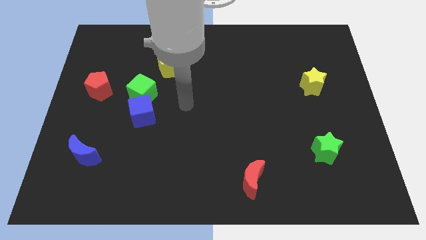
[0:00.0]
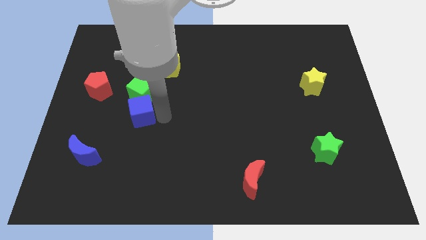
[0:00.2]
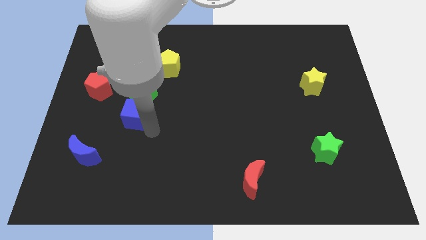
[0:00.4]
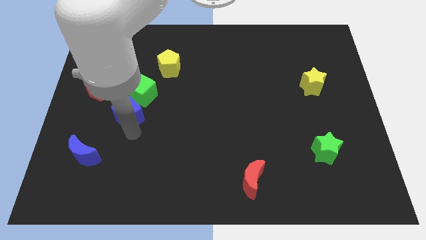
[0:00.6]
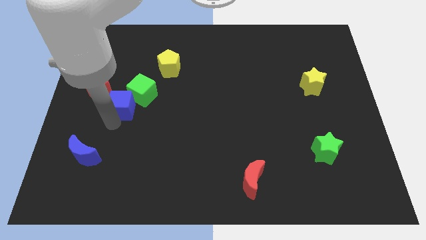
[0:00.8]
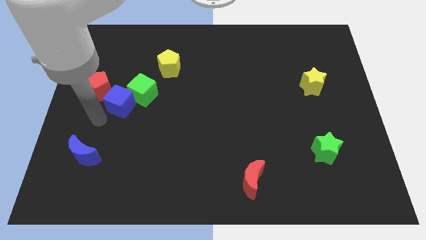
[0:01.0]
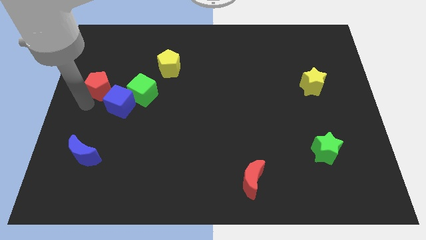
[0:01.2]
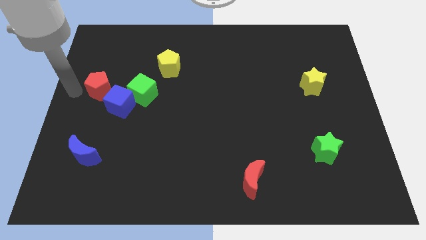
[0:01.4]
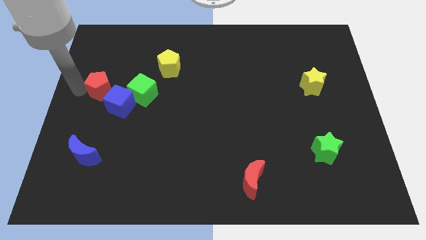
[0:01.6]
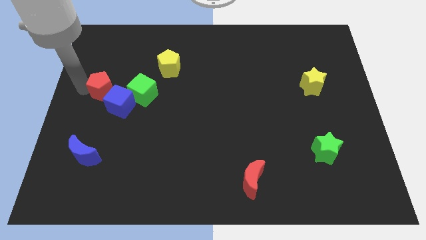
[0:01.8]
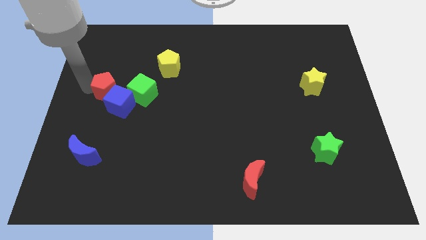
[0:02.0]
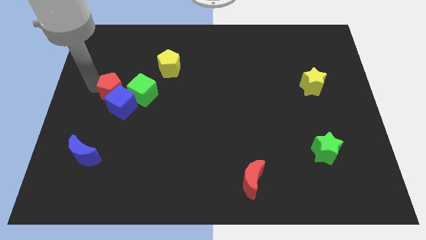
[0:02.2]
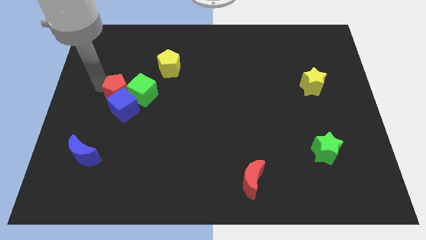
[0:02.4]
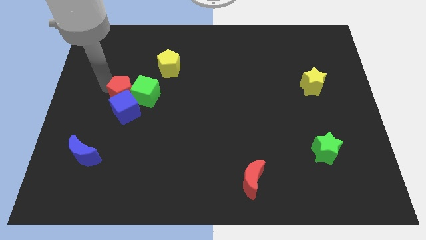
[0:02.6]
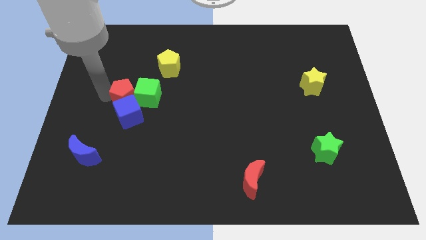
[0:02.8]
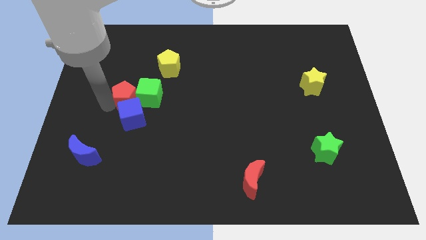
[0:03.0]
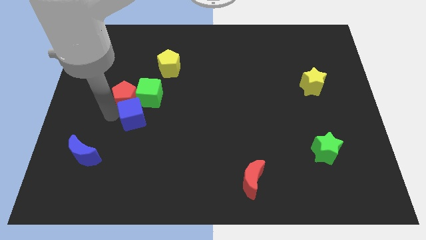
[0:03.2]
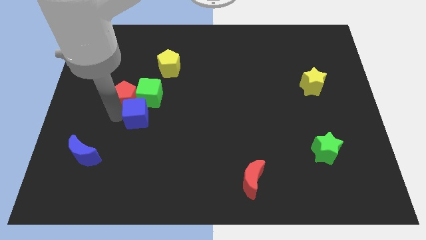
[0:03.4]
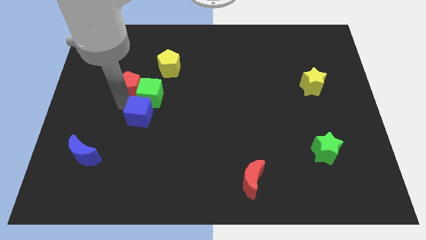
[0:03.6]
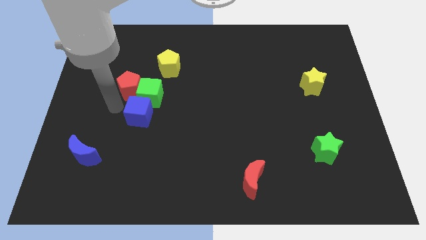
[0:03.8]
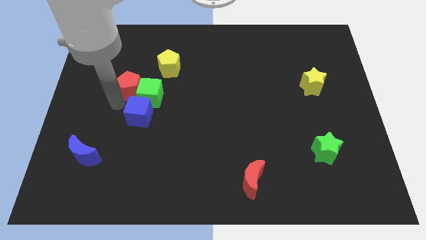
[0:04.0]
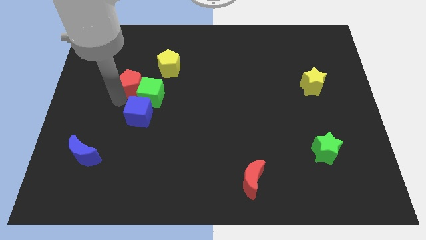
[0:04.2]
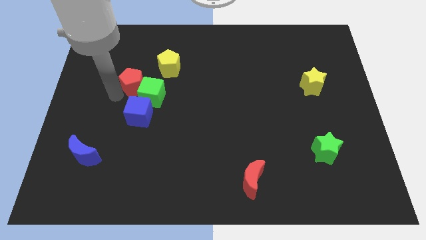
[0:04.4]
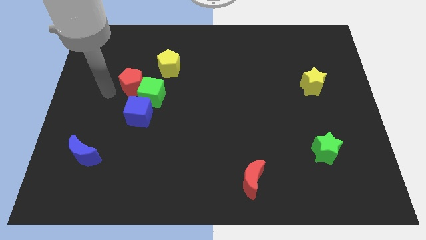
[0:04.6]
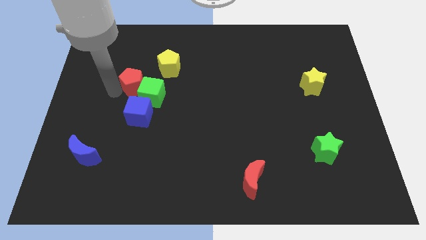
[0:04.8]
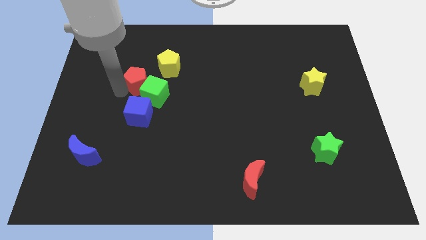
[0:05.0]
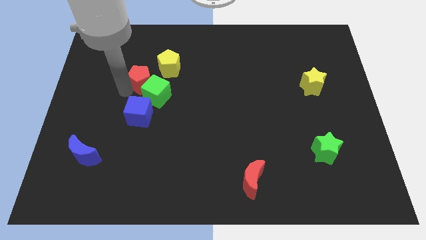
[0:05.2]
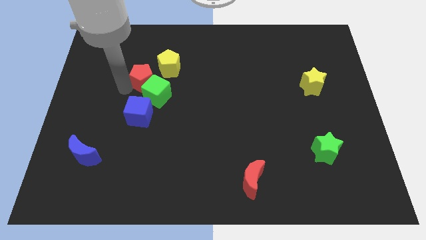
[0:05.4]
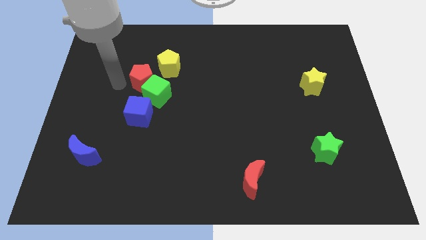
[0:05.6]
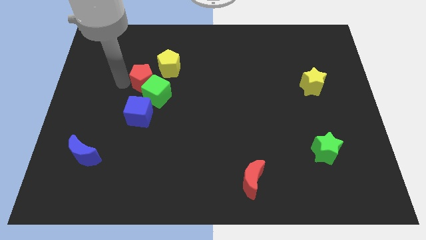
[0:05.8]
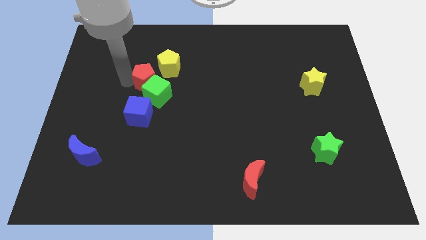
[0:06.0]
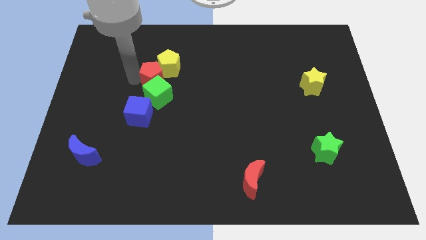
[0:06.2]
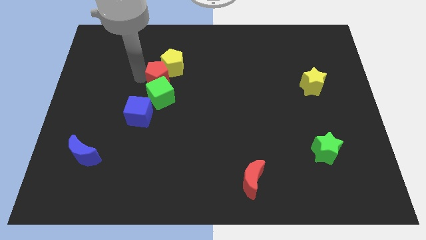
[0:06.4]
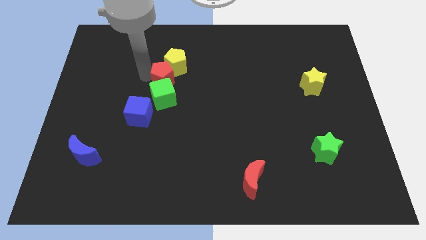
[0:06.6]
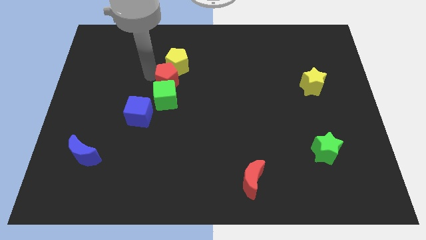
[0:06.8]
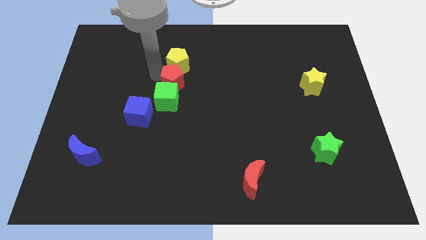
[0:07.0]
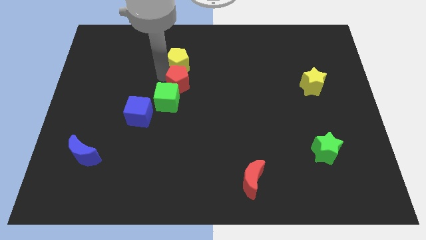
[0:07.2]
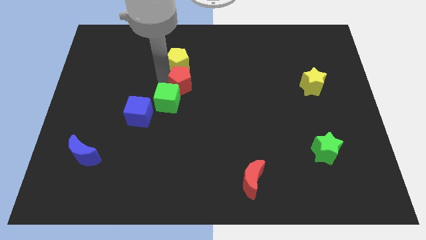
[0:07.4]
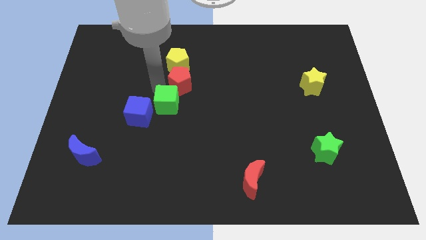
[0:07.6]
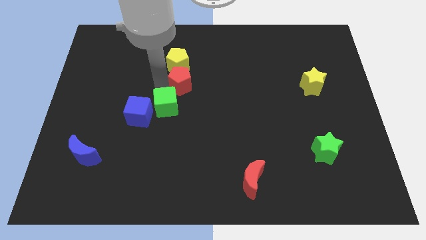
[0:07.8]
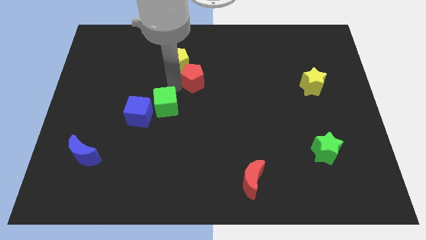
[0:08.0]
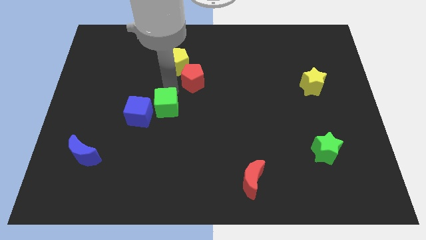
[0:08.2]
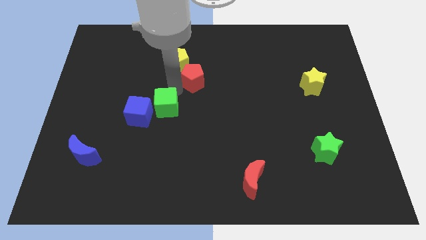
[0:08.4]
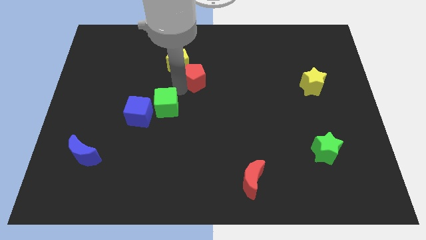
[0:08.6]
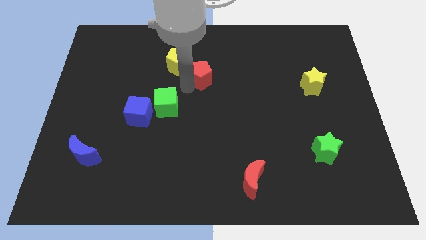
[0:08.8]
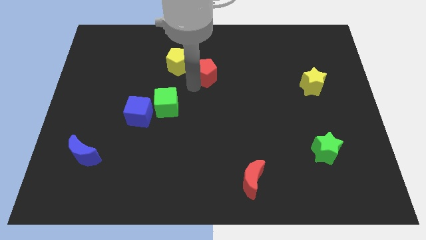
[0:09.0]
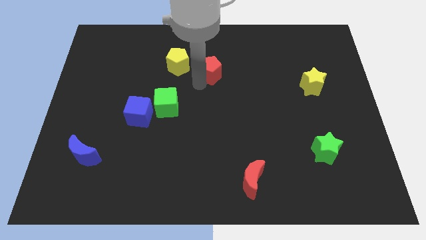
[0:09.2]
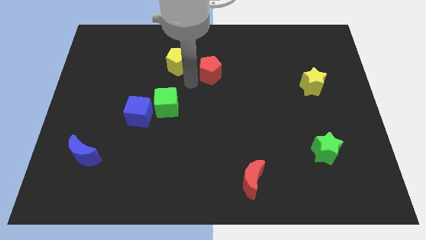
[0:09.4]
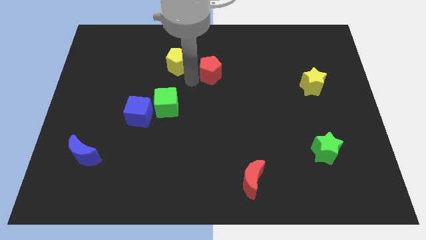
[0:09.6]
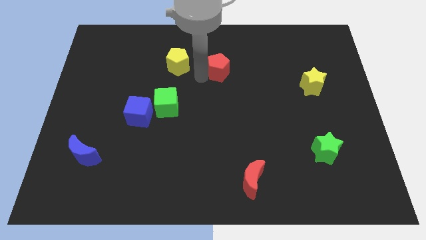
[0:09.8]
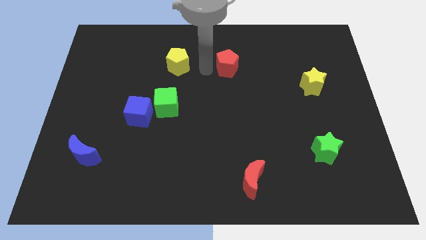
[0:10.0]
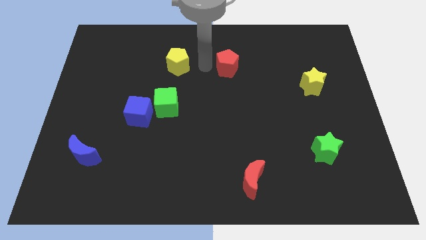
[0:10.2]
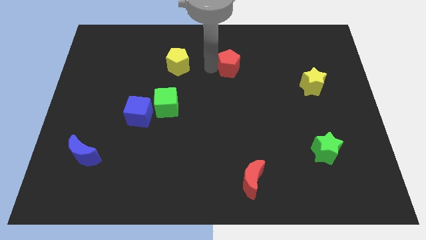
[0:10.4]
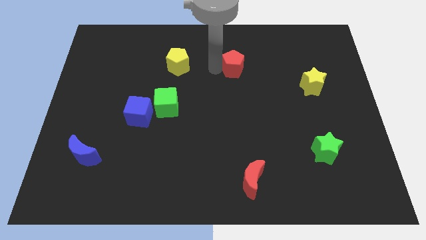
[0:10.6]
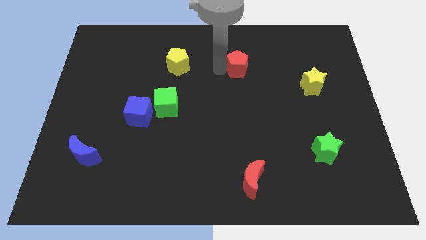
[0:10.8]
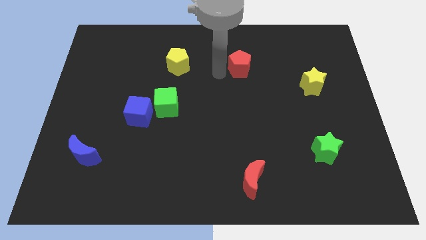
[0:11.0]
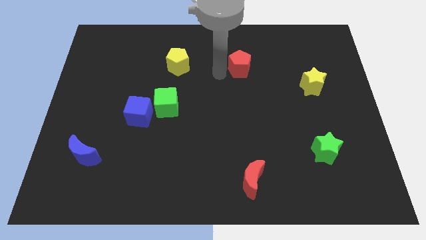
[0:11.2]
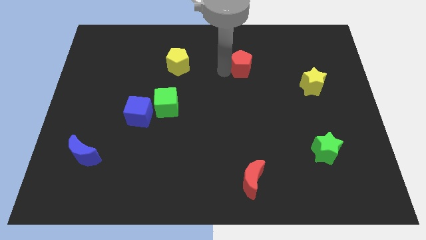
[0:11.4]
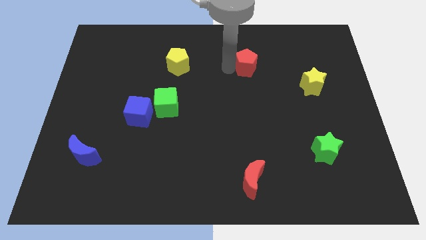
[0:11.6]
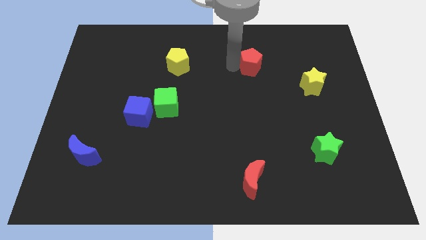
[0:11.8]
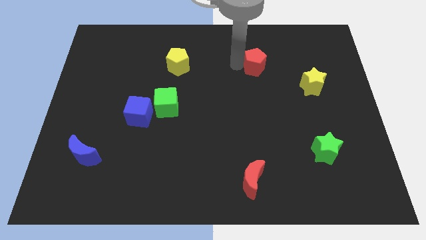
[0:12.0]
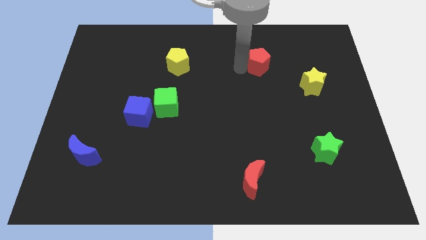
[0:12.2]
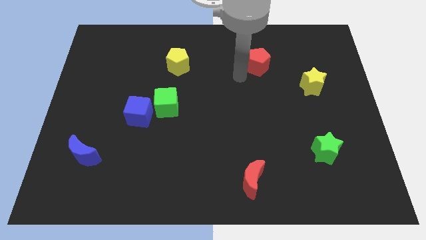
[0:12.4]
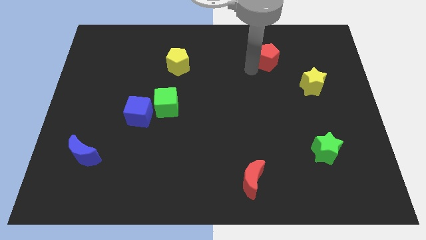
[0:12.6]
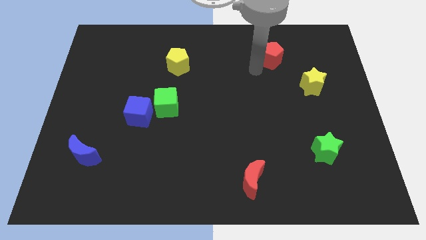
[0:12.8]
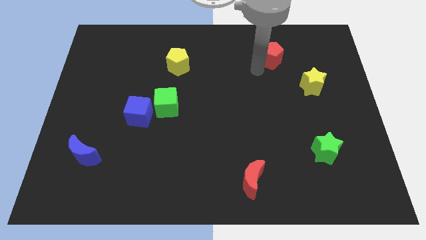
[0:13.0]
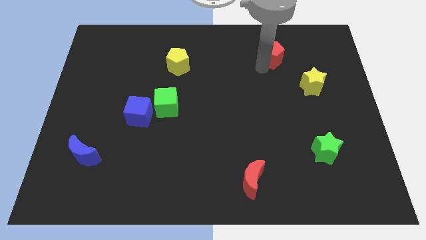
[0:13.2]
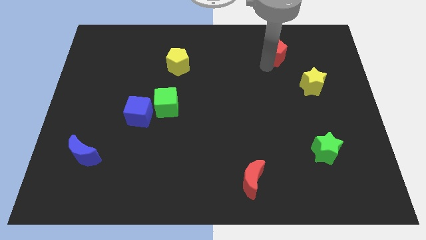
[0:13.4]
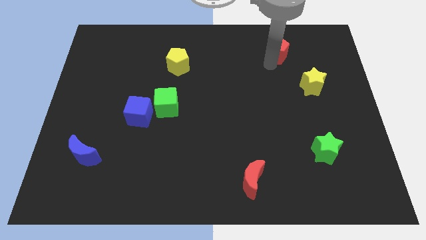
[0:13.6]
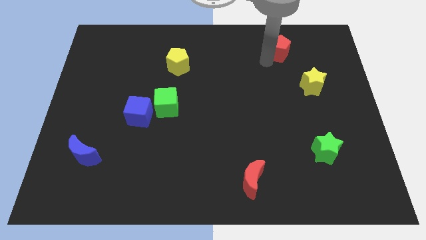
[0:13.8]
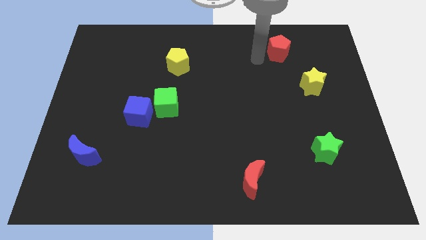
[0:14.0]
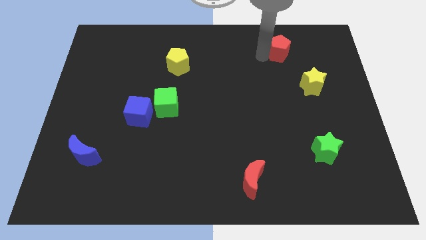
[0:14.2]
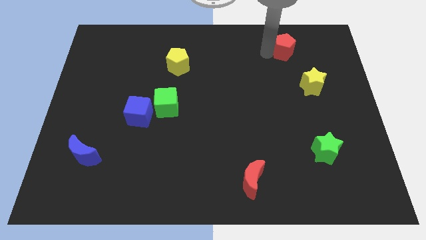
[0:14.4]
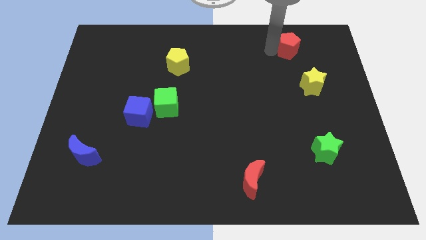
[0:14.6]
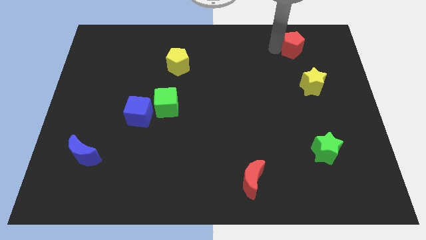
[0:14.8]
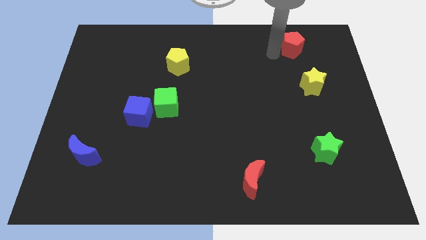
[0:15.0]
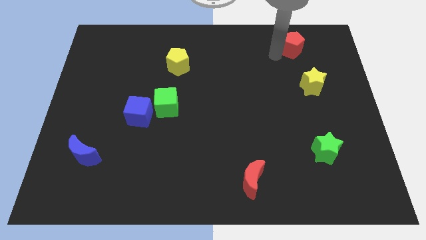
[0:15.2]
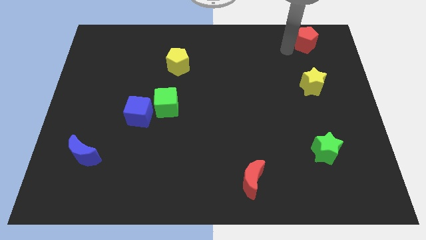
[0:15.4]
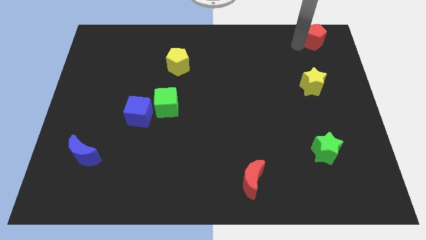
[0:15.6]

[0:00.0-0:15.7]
push the red pentagon to the top right
